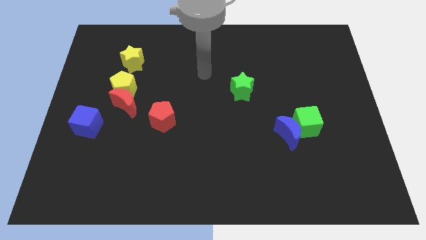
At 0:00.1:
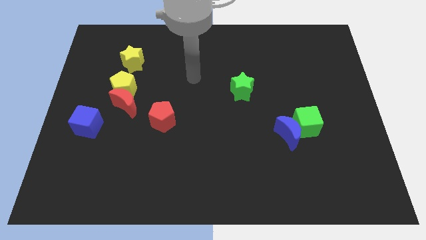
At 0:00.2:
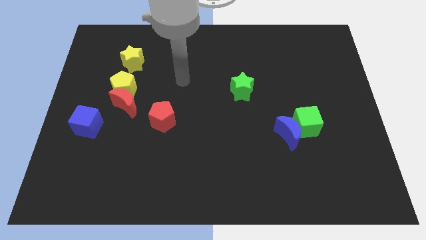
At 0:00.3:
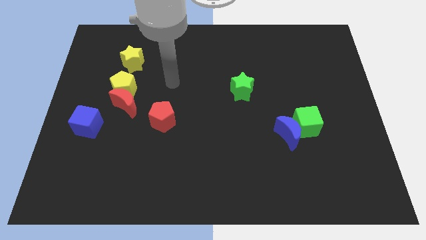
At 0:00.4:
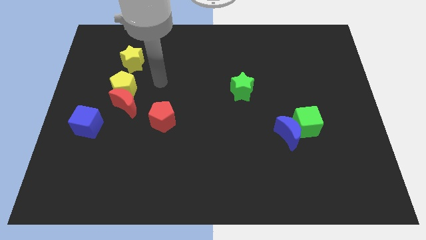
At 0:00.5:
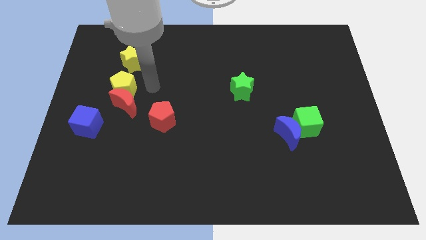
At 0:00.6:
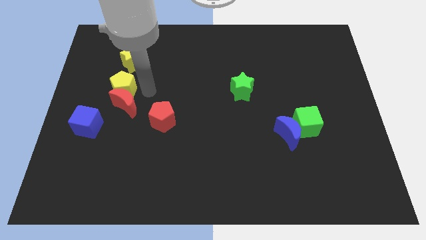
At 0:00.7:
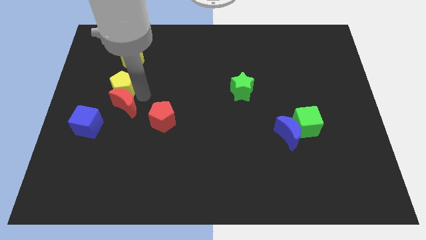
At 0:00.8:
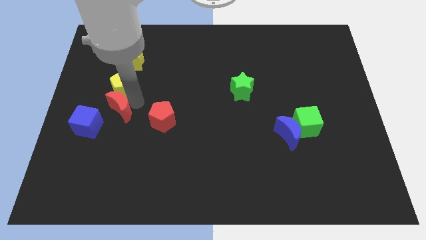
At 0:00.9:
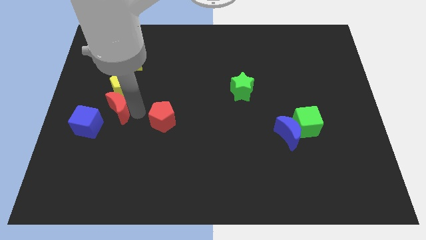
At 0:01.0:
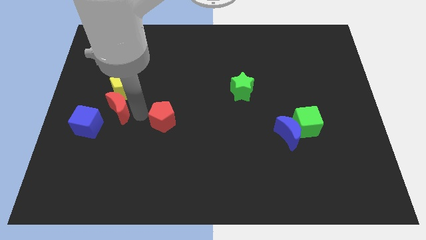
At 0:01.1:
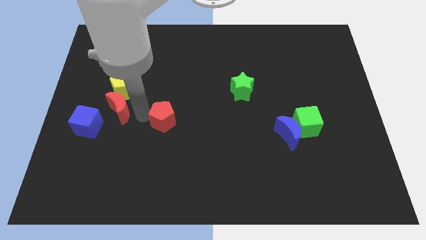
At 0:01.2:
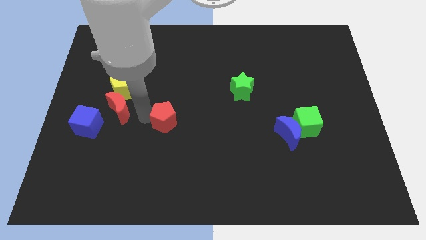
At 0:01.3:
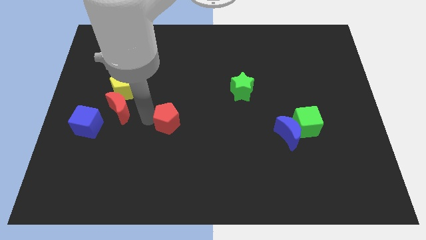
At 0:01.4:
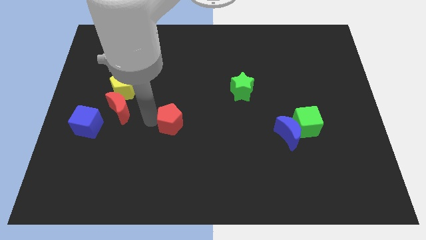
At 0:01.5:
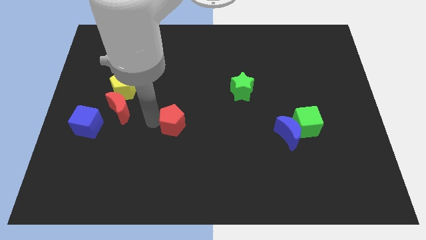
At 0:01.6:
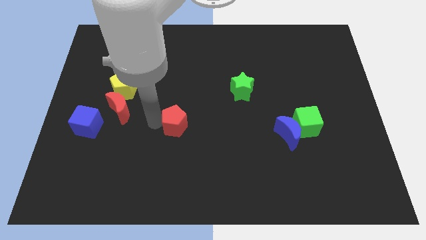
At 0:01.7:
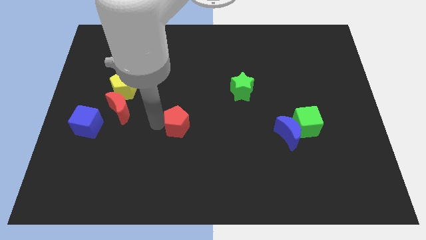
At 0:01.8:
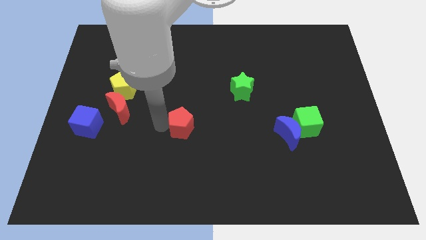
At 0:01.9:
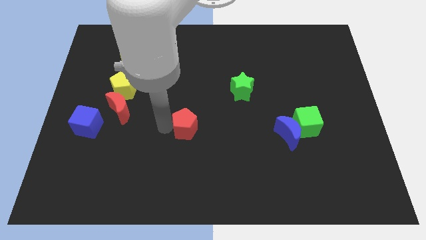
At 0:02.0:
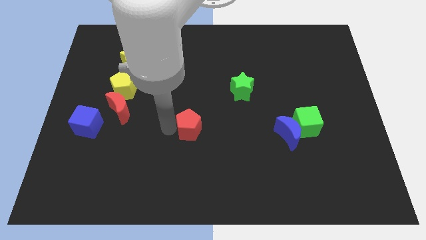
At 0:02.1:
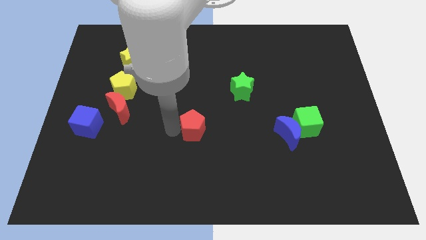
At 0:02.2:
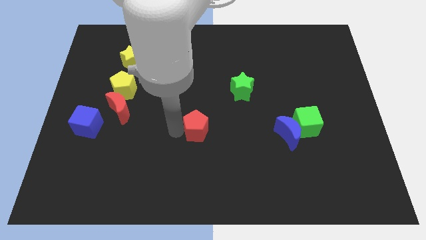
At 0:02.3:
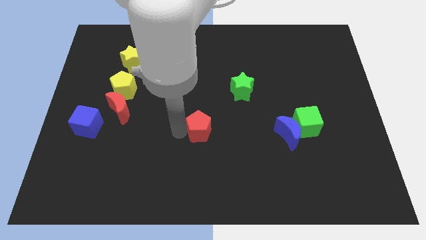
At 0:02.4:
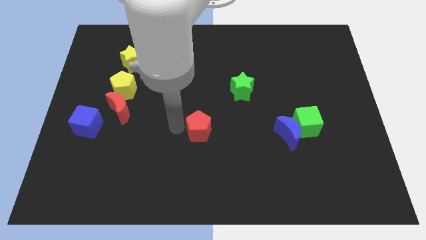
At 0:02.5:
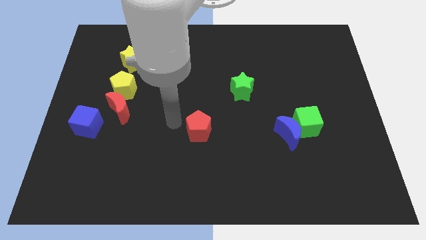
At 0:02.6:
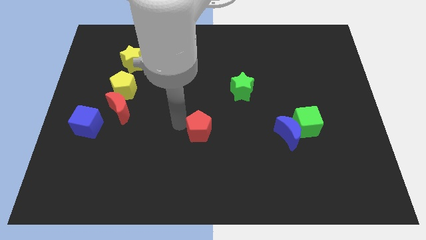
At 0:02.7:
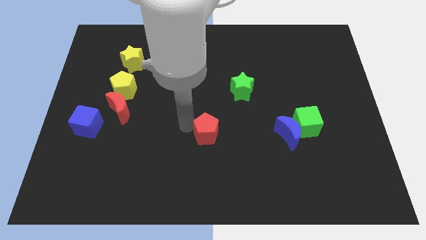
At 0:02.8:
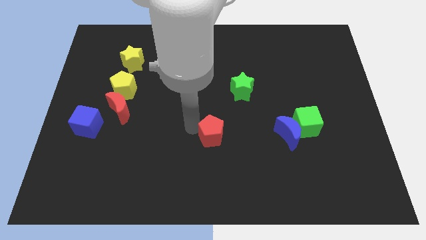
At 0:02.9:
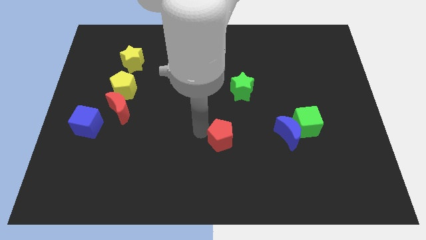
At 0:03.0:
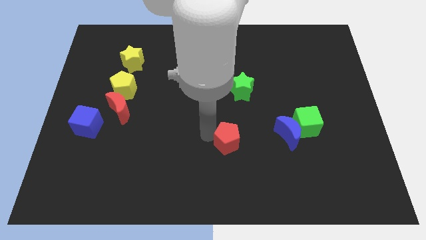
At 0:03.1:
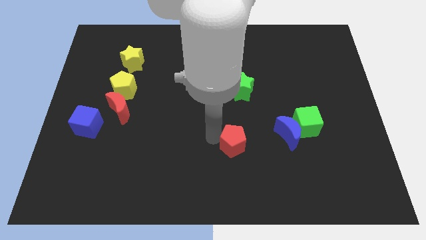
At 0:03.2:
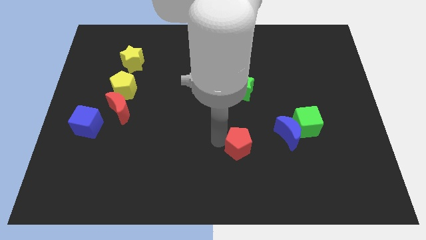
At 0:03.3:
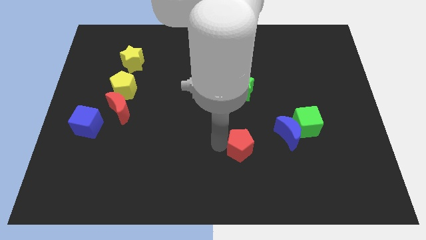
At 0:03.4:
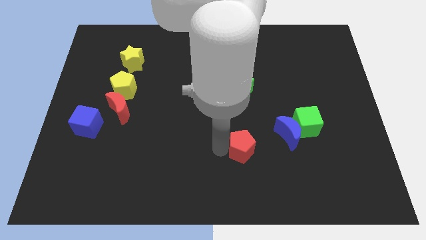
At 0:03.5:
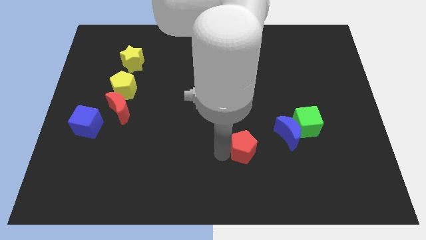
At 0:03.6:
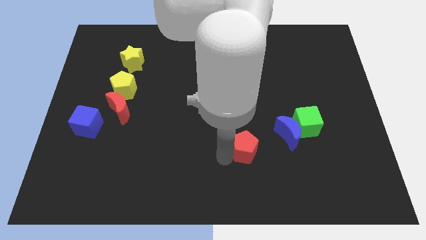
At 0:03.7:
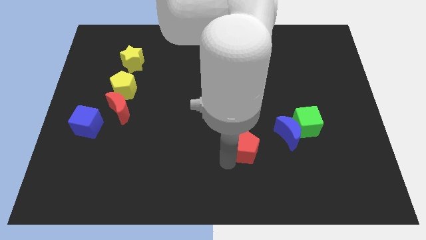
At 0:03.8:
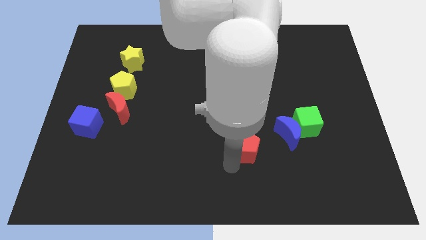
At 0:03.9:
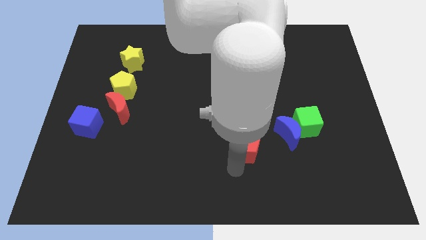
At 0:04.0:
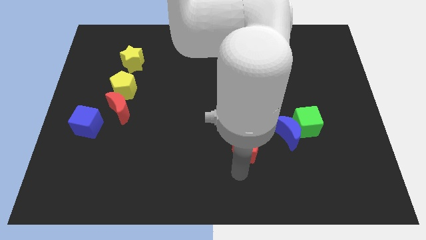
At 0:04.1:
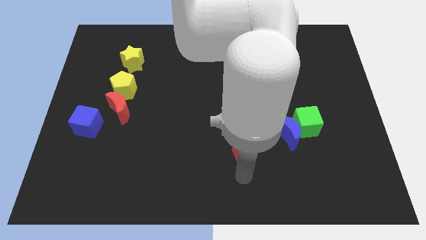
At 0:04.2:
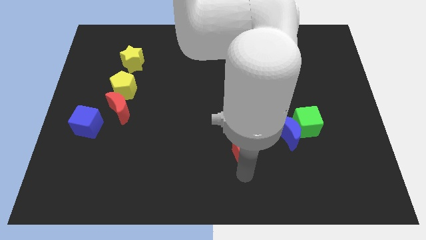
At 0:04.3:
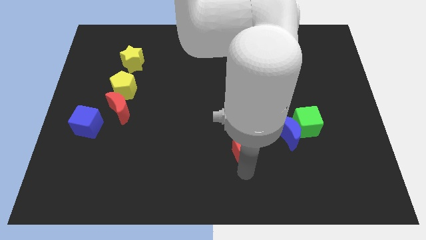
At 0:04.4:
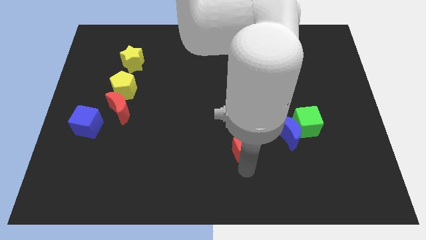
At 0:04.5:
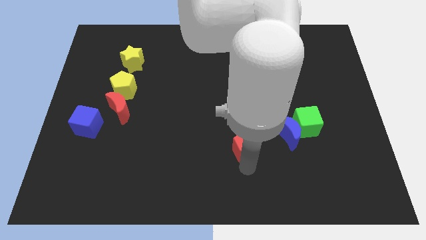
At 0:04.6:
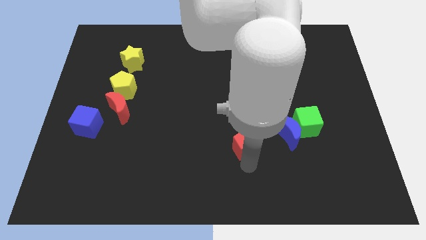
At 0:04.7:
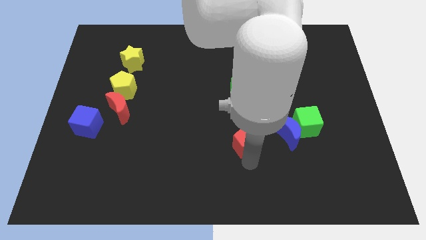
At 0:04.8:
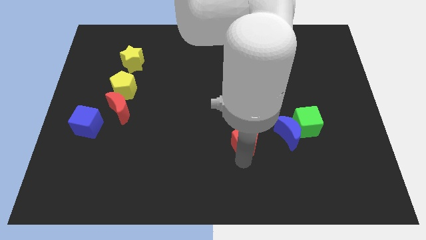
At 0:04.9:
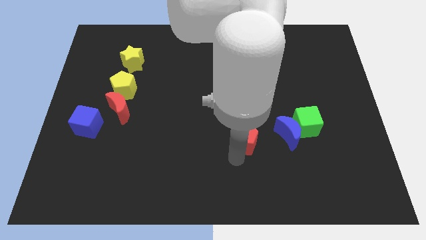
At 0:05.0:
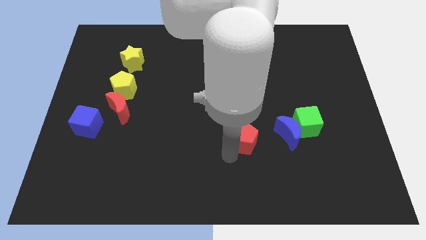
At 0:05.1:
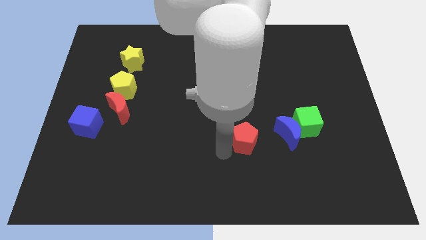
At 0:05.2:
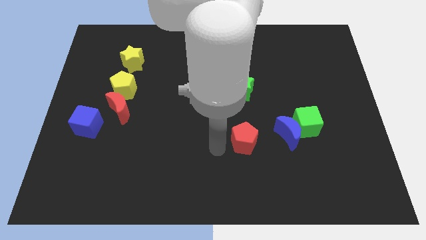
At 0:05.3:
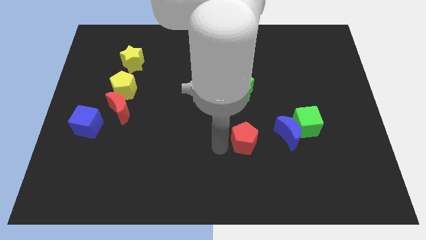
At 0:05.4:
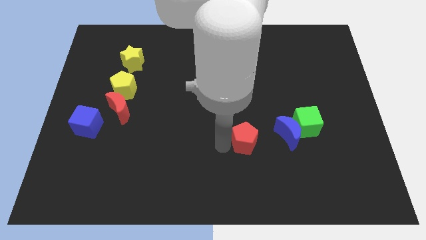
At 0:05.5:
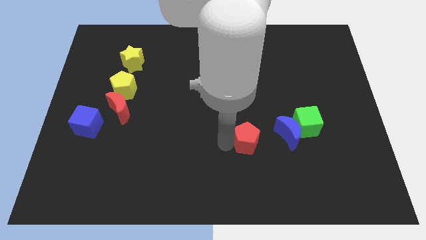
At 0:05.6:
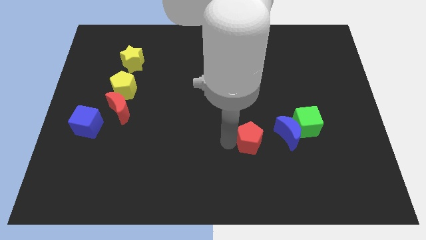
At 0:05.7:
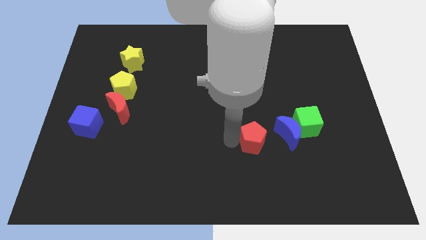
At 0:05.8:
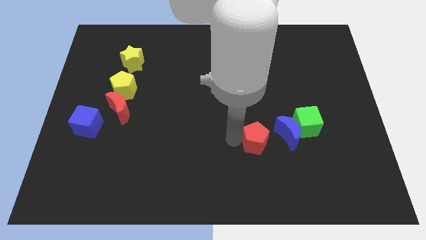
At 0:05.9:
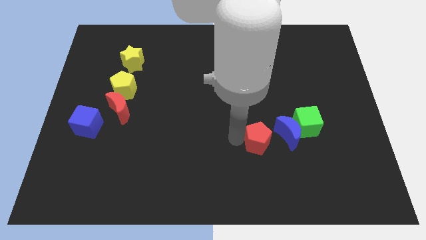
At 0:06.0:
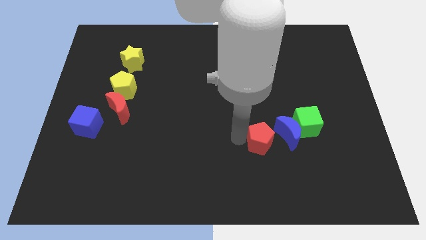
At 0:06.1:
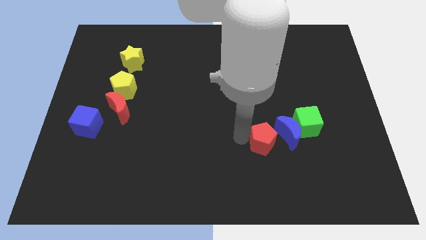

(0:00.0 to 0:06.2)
move the red pentagon close to the blue moon

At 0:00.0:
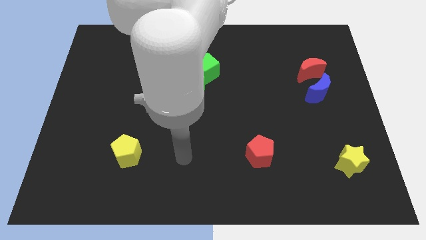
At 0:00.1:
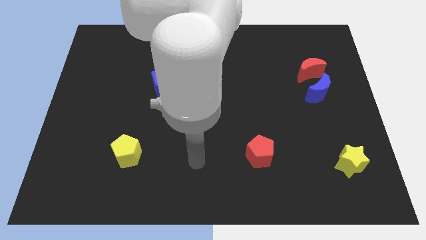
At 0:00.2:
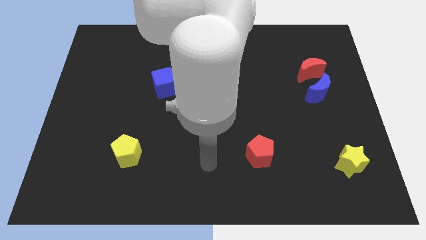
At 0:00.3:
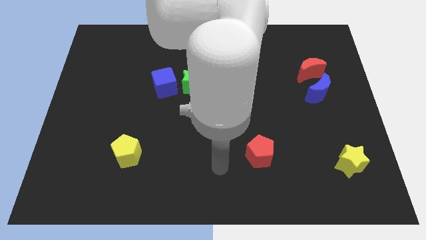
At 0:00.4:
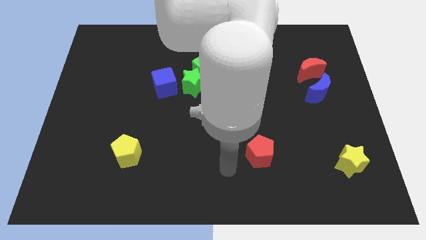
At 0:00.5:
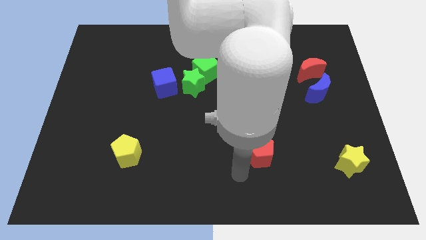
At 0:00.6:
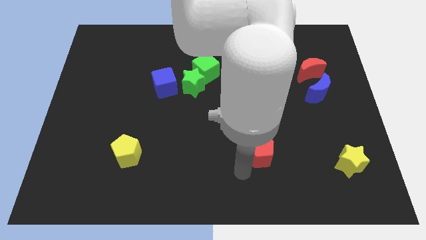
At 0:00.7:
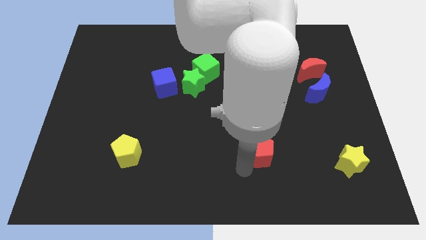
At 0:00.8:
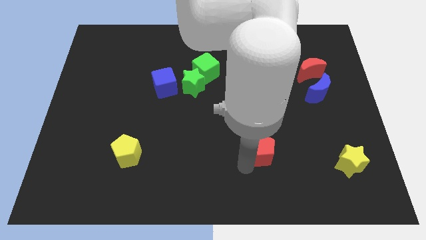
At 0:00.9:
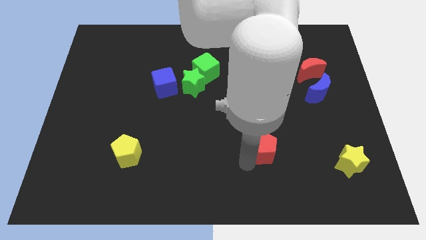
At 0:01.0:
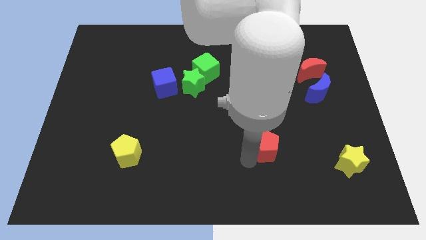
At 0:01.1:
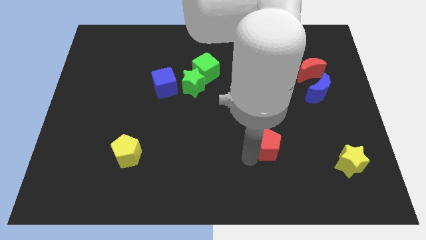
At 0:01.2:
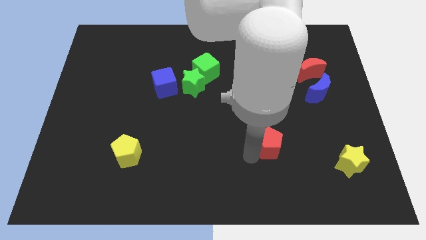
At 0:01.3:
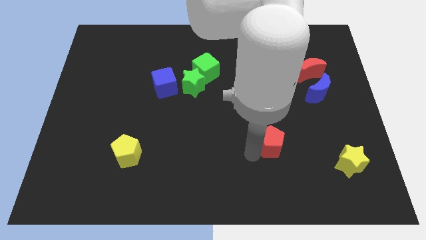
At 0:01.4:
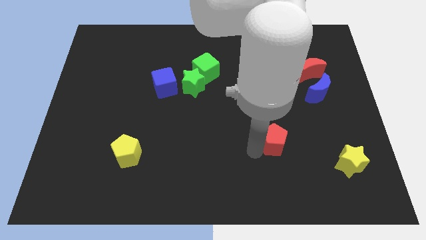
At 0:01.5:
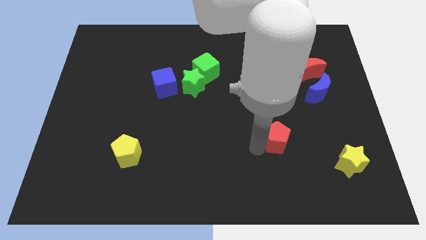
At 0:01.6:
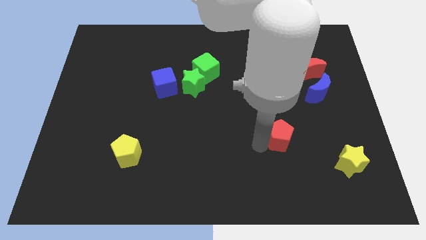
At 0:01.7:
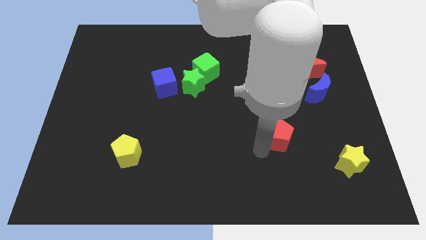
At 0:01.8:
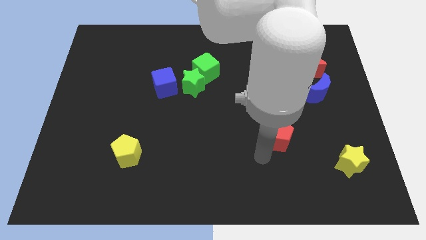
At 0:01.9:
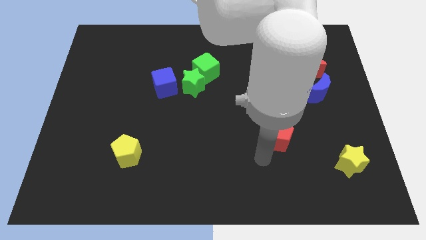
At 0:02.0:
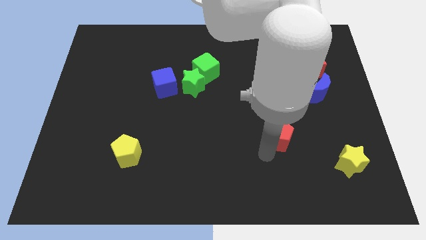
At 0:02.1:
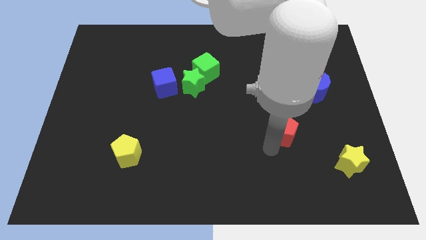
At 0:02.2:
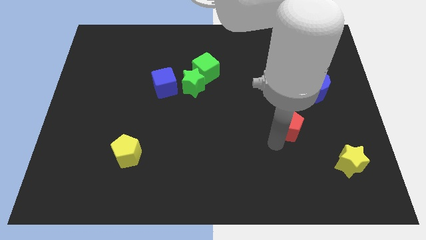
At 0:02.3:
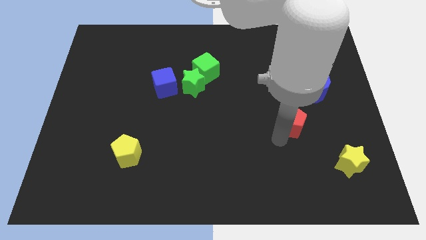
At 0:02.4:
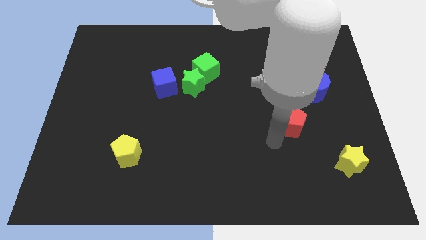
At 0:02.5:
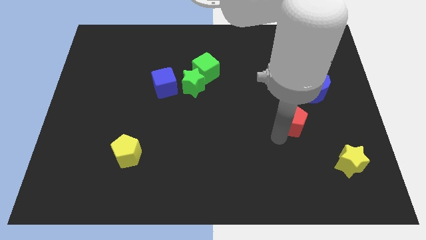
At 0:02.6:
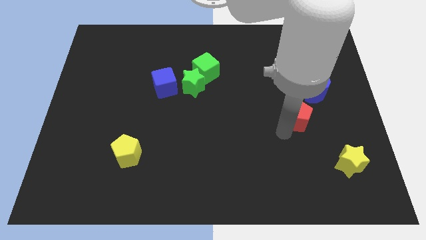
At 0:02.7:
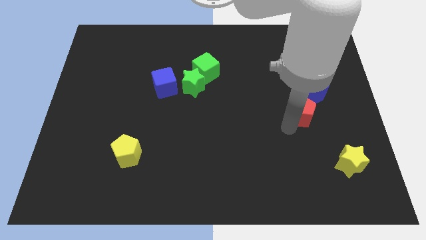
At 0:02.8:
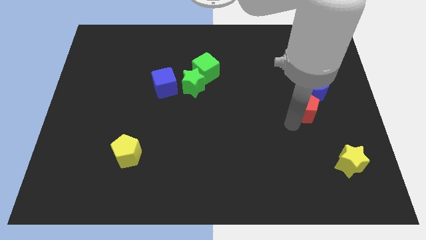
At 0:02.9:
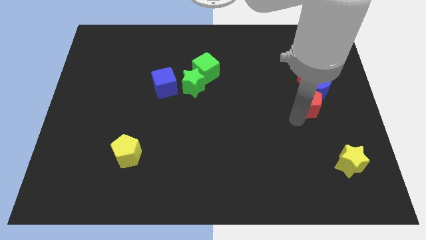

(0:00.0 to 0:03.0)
move the red pentagon towards the blue moon
